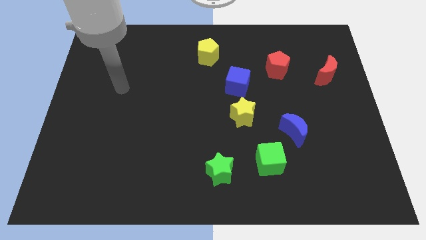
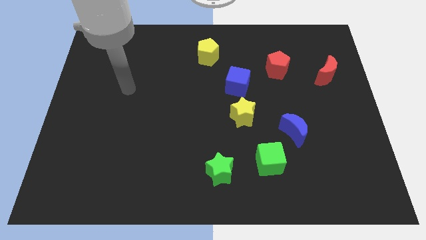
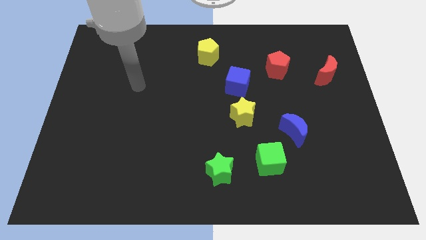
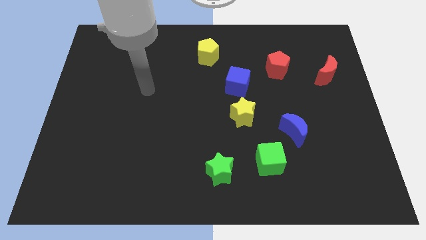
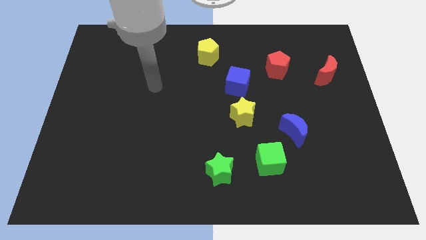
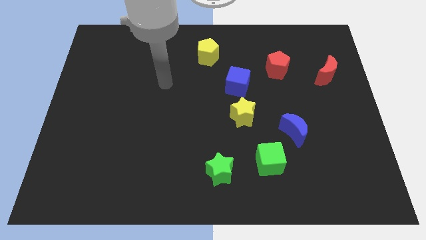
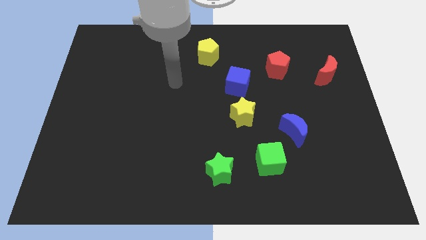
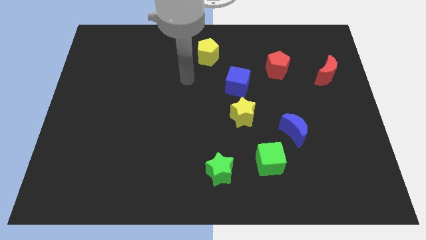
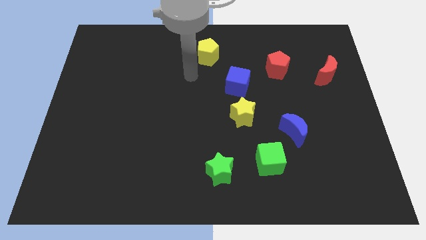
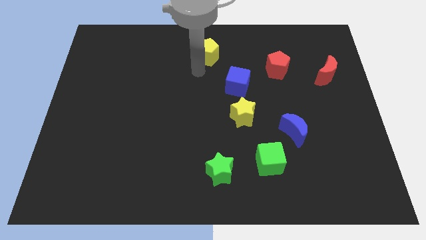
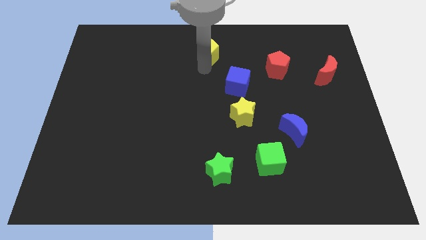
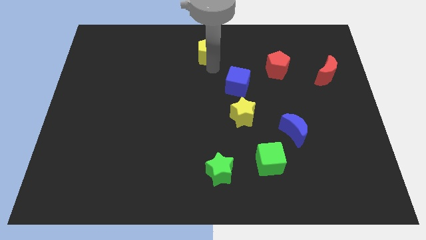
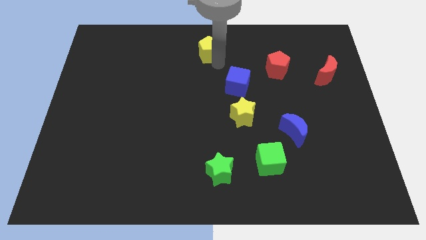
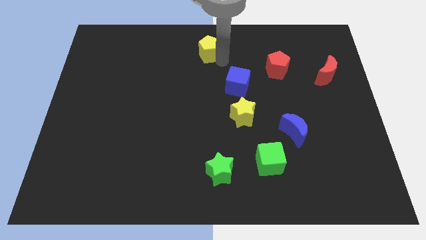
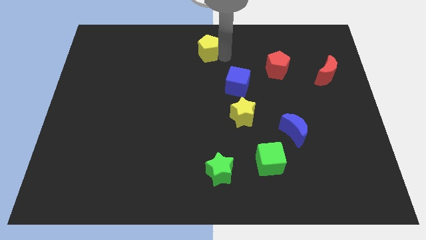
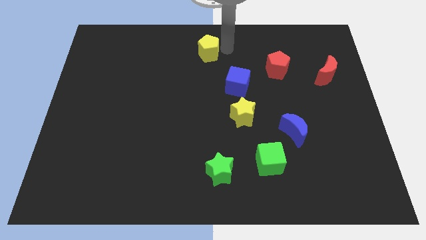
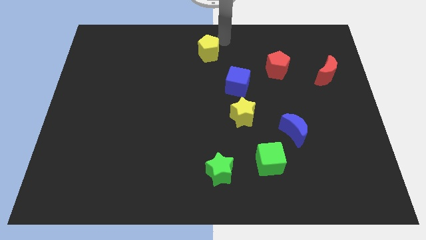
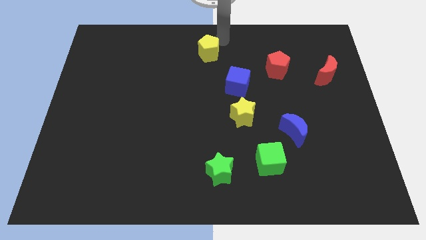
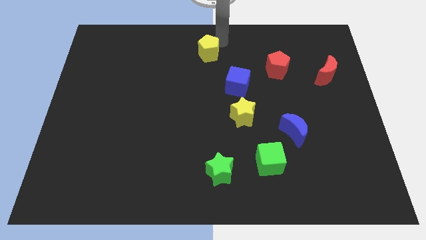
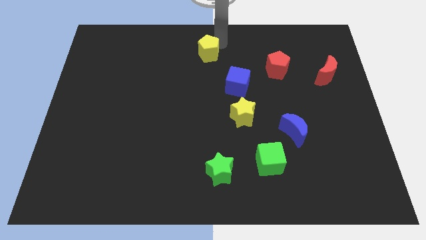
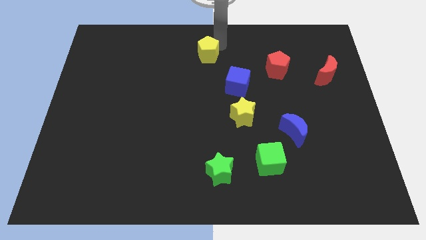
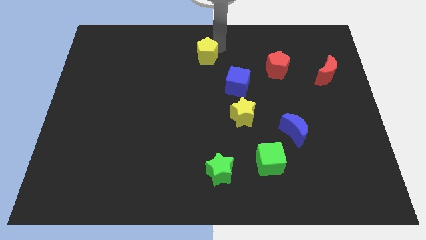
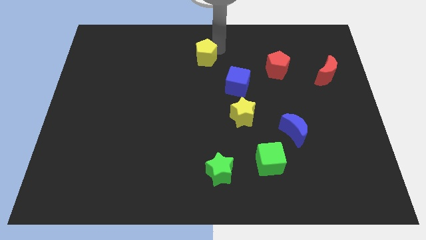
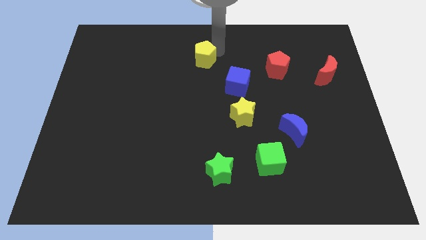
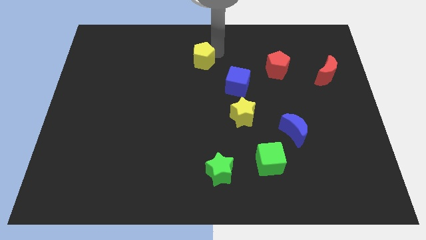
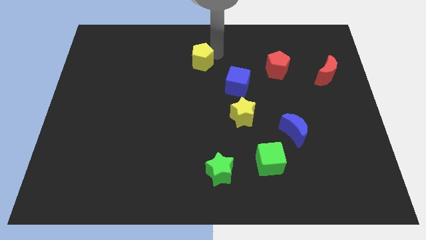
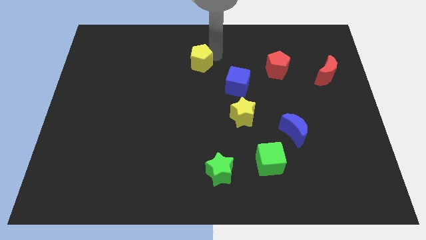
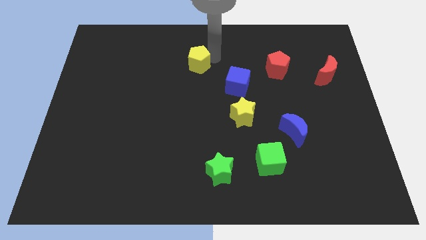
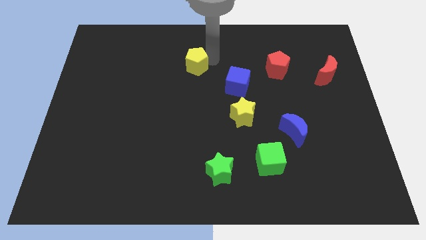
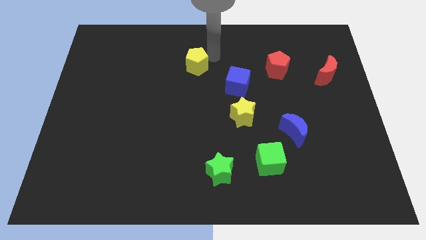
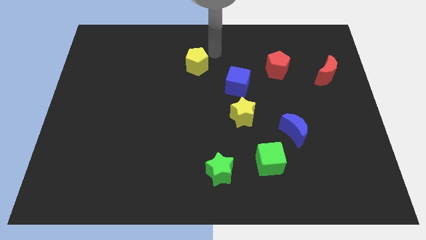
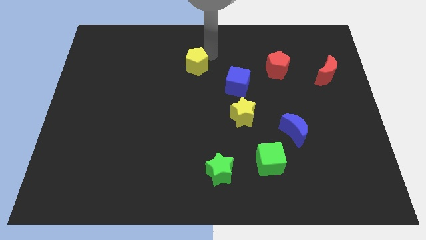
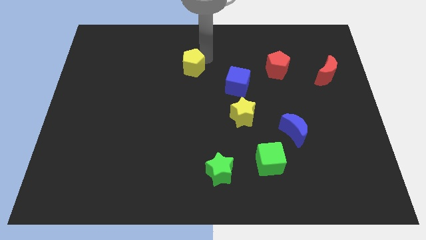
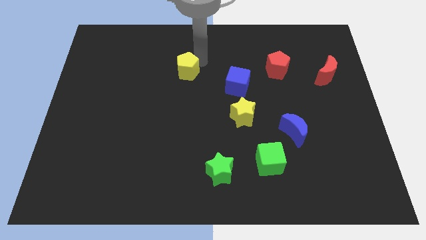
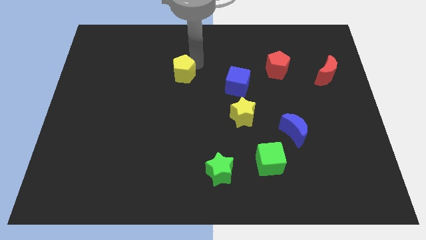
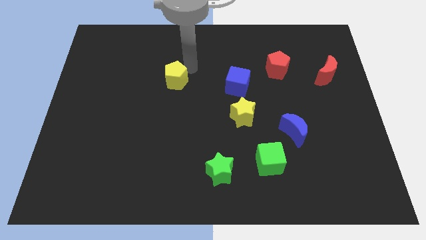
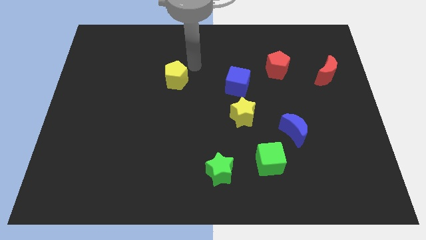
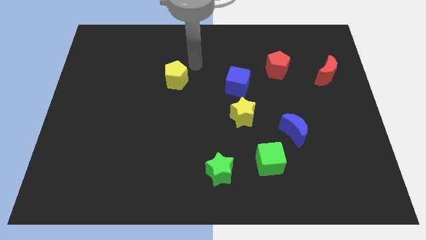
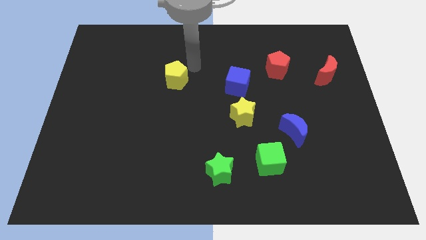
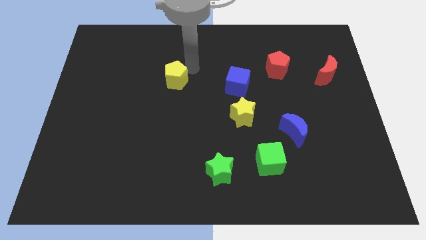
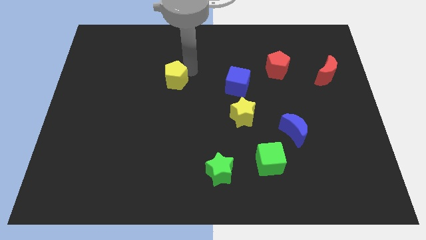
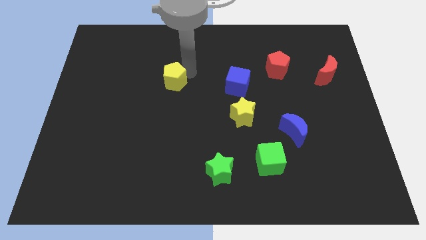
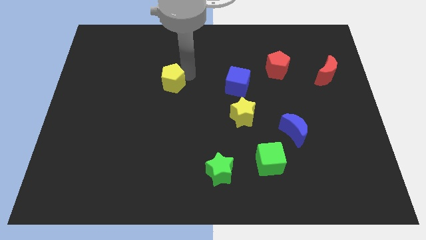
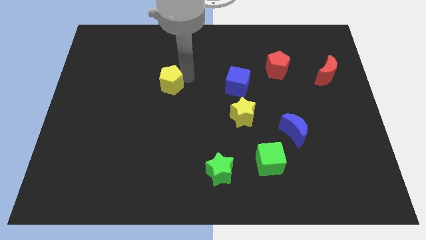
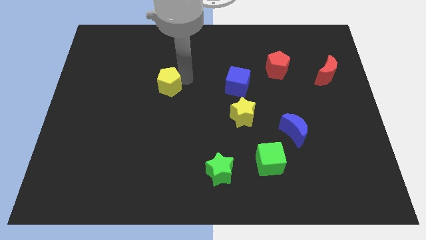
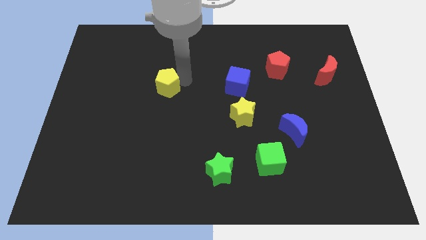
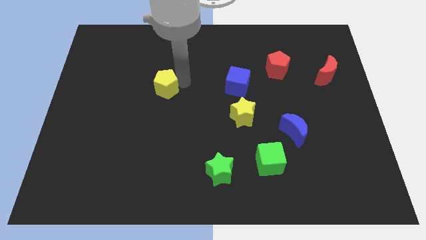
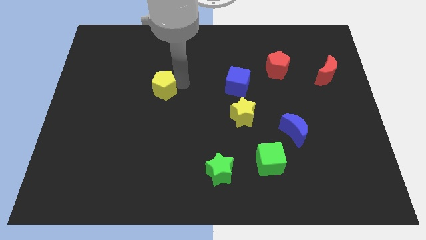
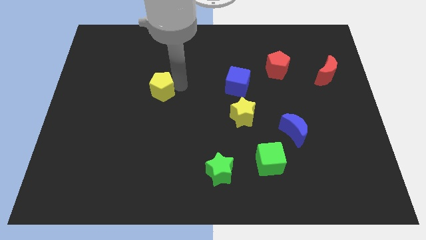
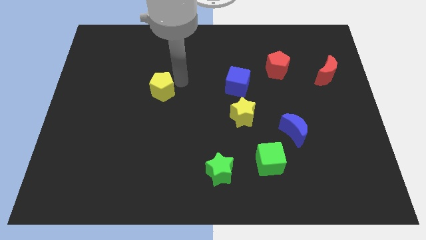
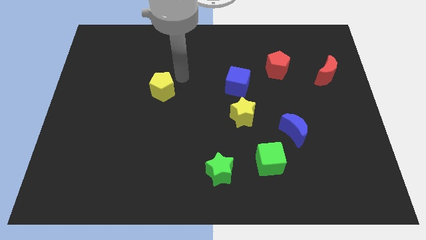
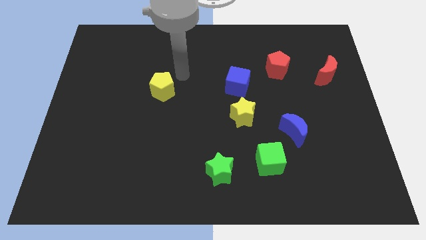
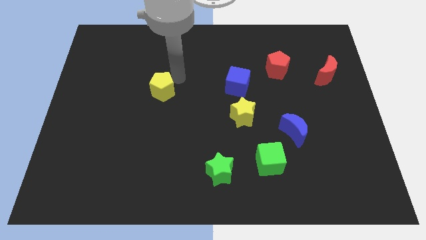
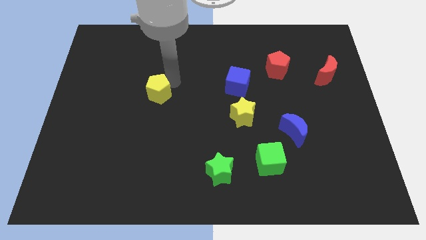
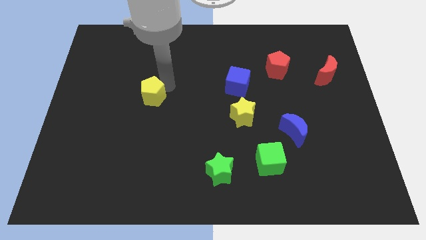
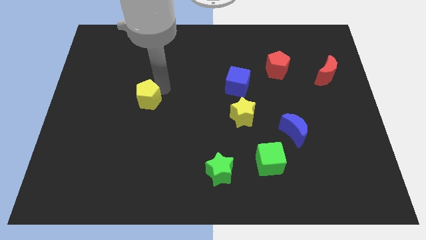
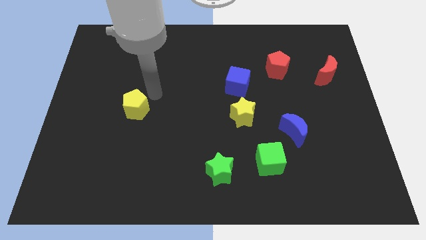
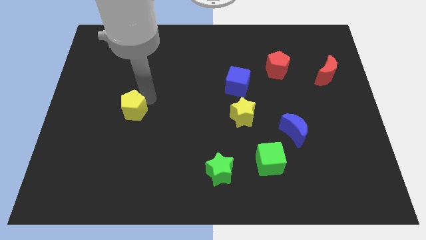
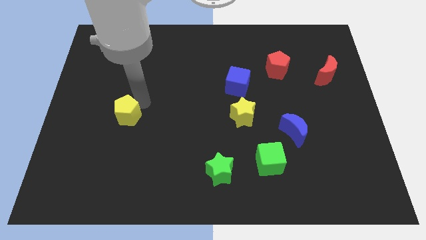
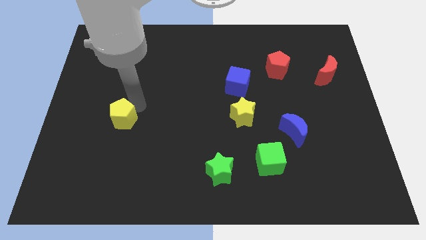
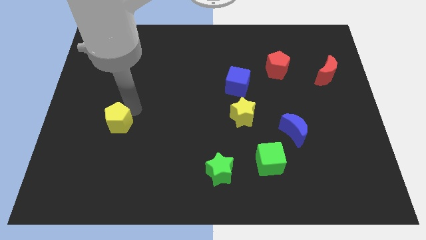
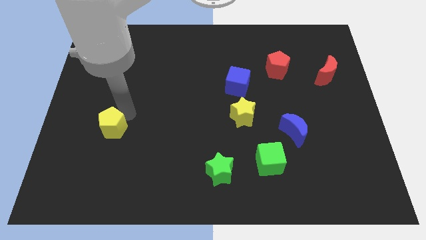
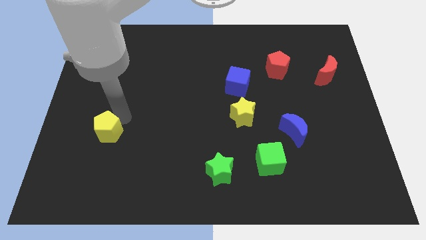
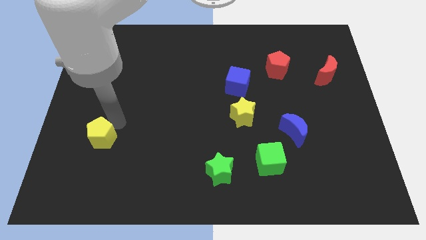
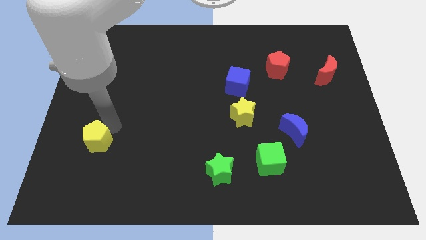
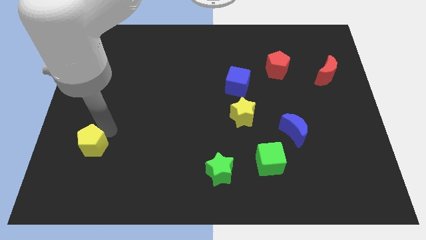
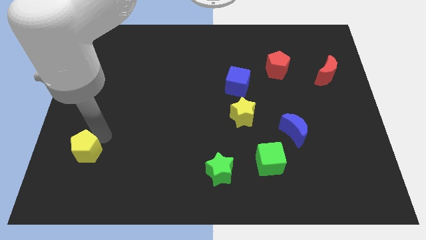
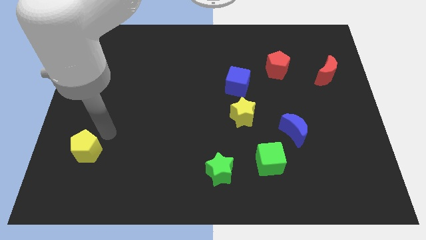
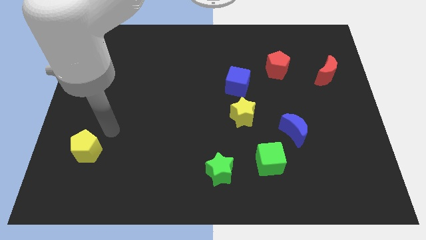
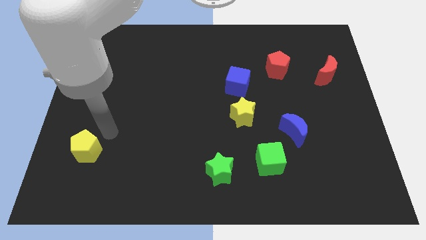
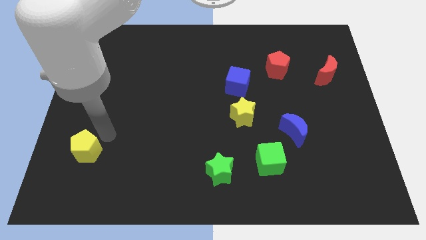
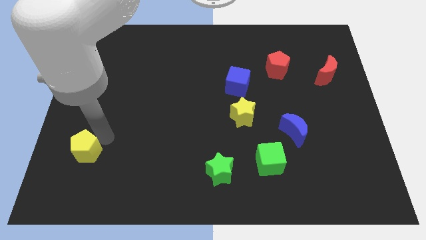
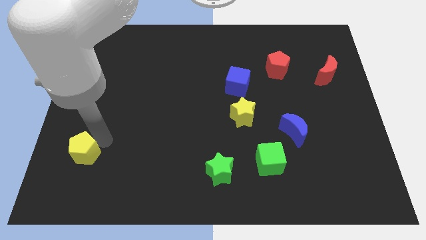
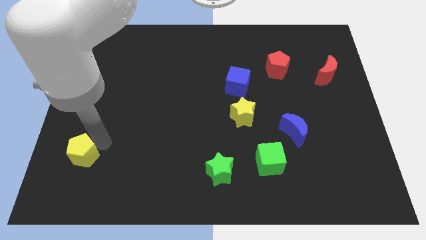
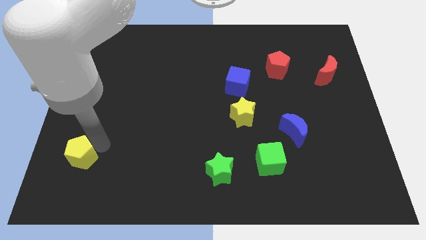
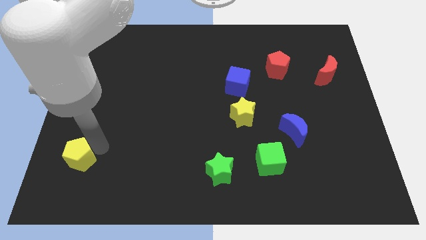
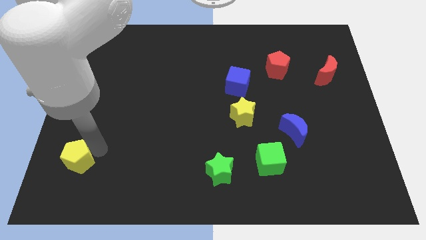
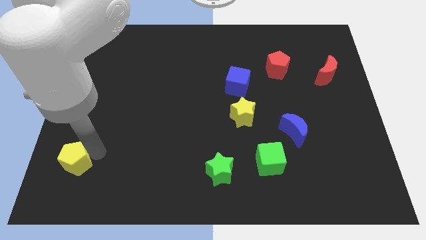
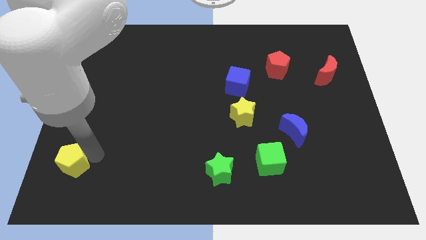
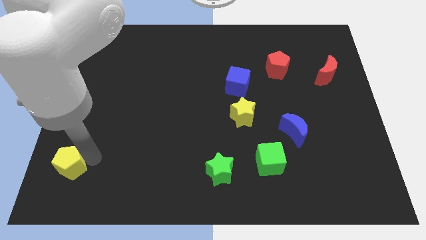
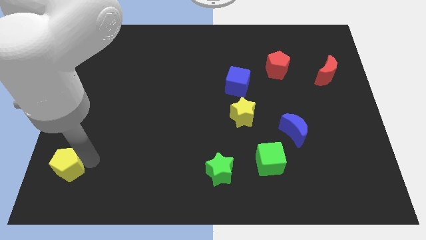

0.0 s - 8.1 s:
put the yellow pentagon to the bottom left of the board
